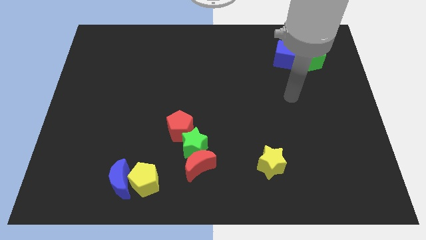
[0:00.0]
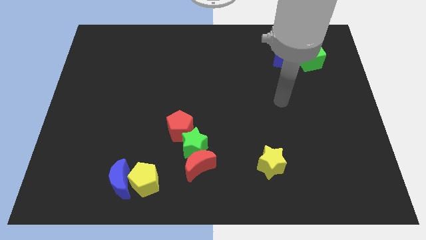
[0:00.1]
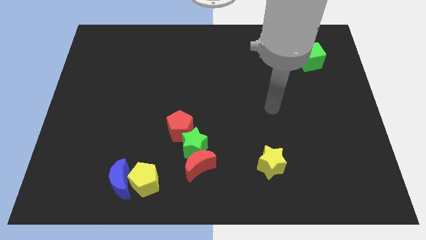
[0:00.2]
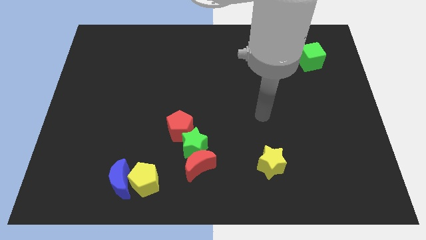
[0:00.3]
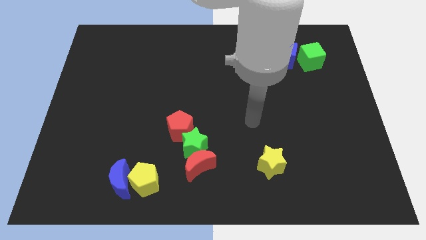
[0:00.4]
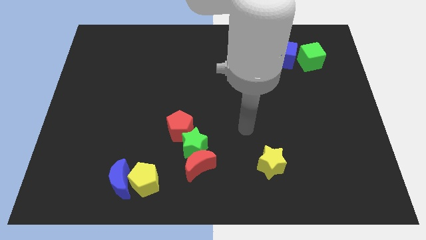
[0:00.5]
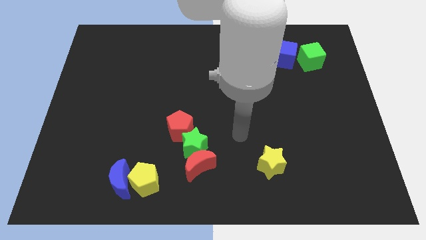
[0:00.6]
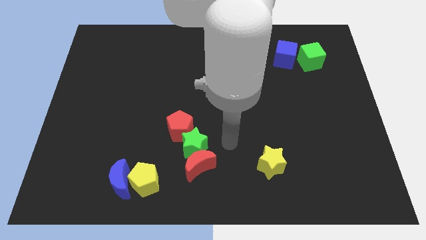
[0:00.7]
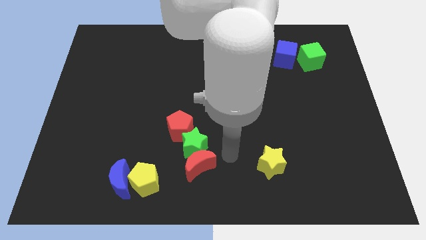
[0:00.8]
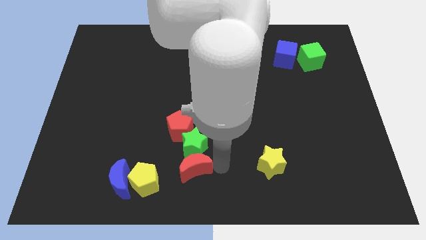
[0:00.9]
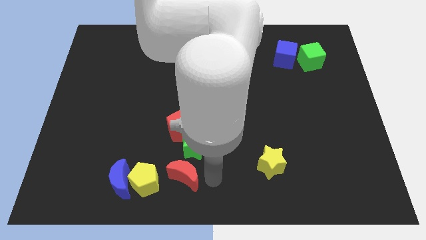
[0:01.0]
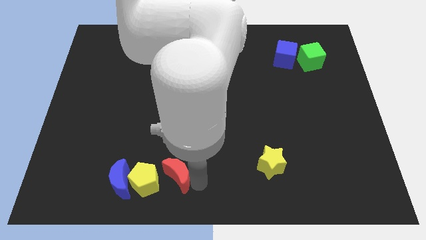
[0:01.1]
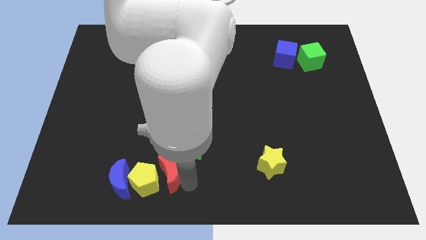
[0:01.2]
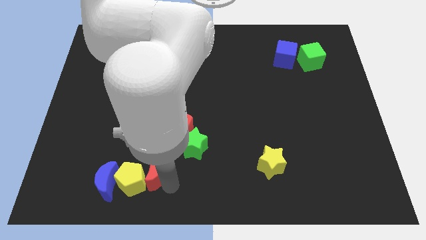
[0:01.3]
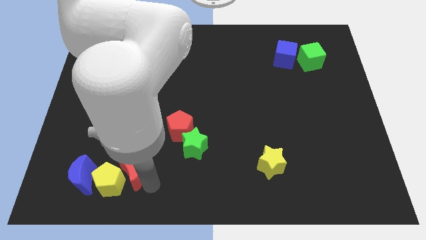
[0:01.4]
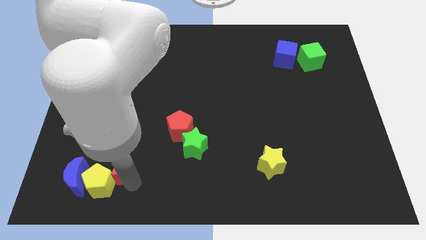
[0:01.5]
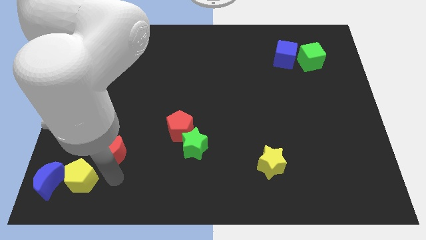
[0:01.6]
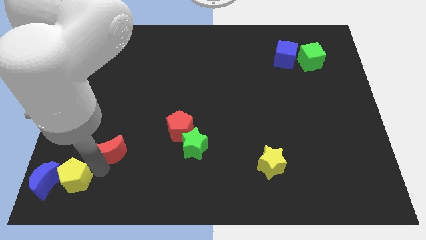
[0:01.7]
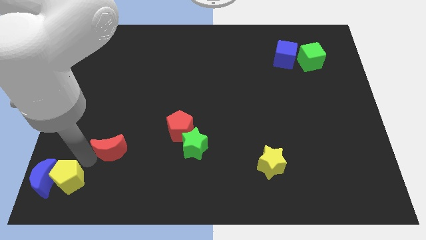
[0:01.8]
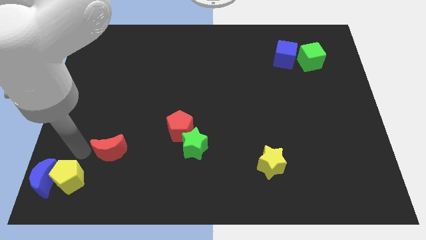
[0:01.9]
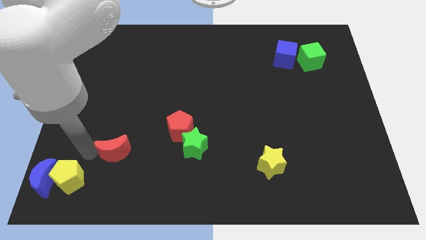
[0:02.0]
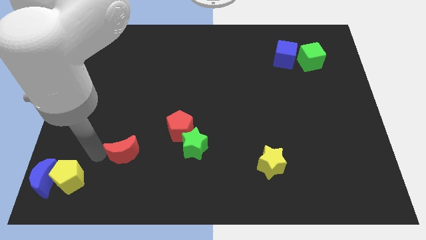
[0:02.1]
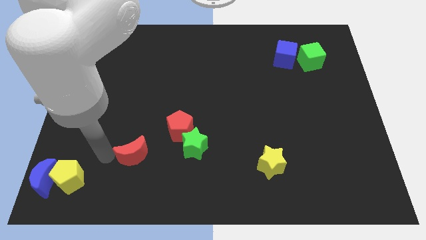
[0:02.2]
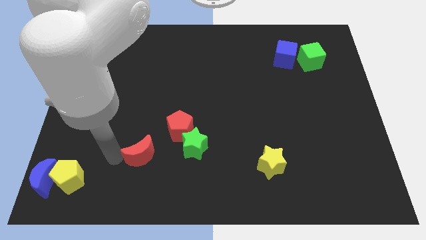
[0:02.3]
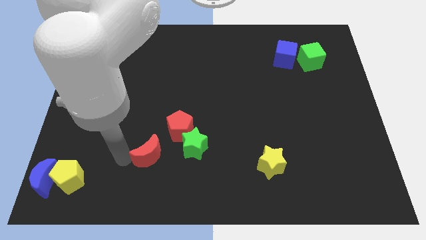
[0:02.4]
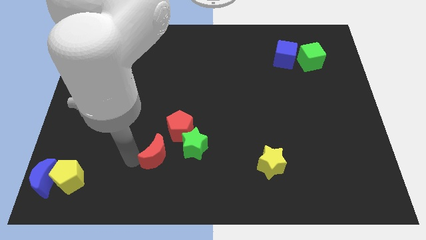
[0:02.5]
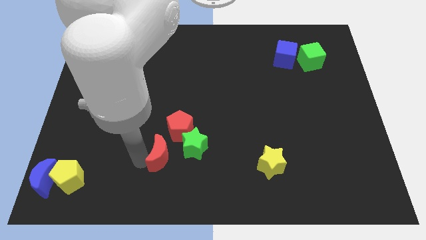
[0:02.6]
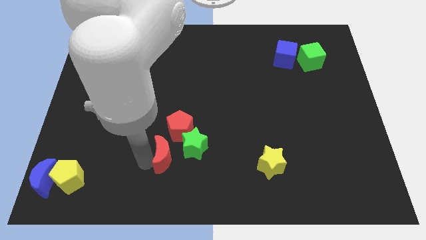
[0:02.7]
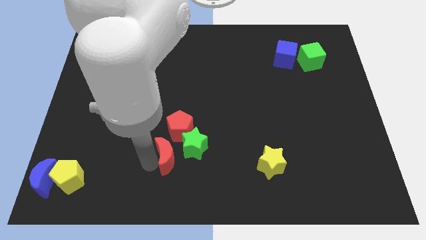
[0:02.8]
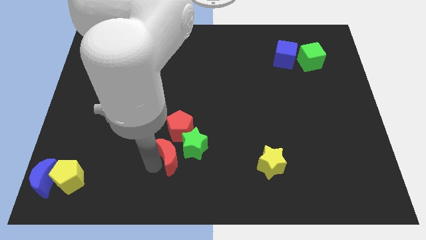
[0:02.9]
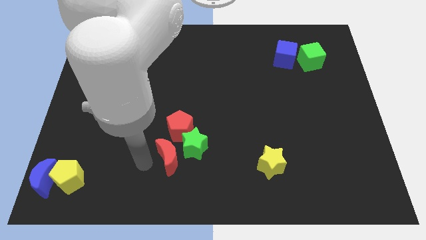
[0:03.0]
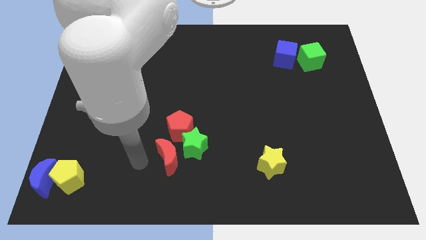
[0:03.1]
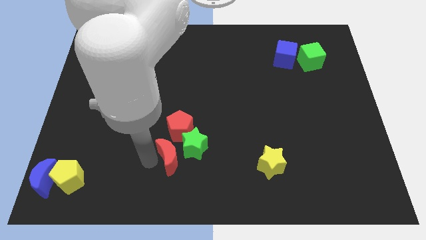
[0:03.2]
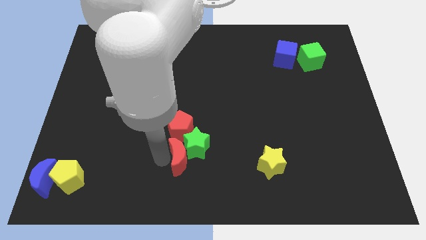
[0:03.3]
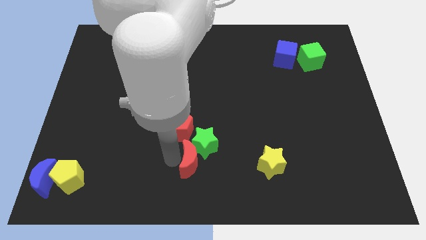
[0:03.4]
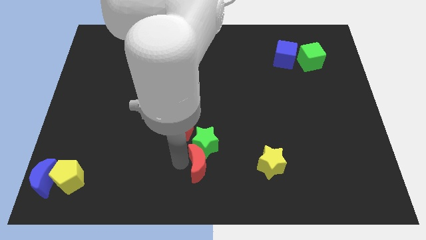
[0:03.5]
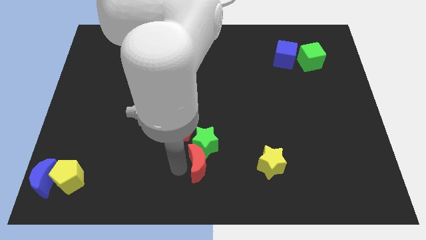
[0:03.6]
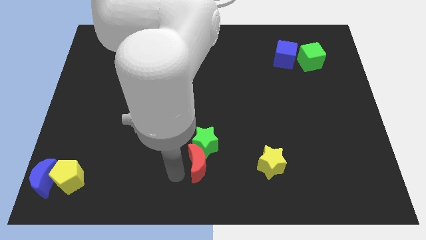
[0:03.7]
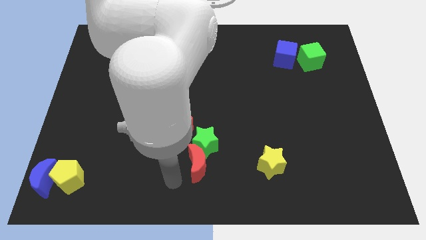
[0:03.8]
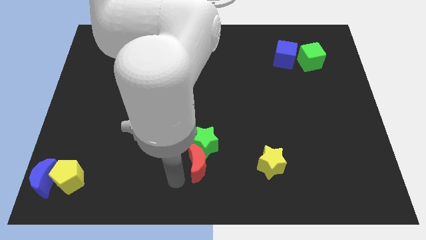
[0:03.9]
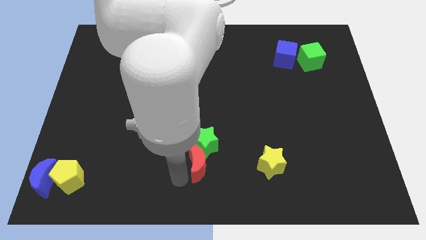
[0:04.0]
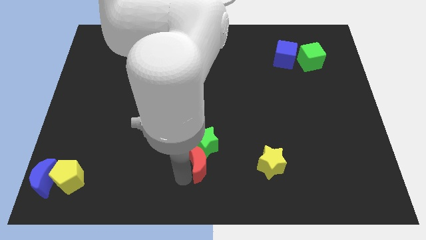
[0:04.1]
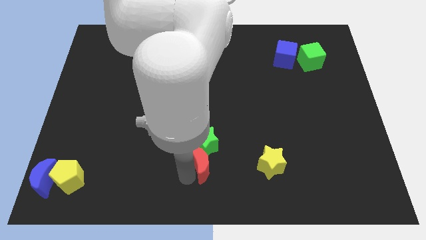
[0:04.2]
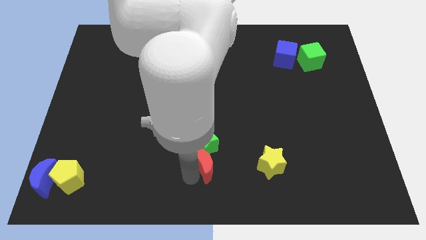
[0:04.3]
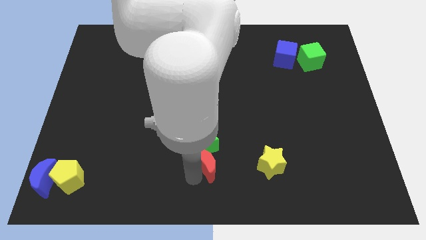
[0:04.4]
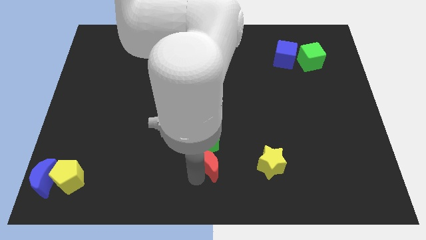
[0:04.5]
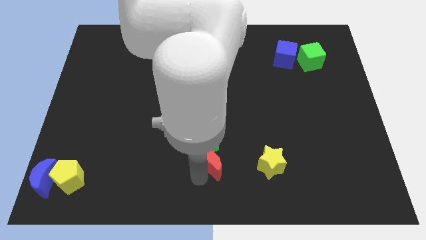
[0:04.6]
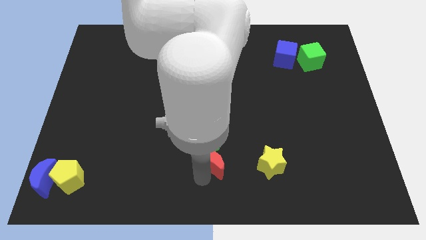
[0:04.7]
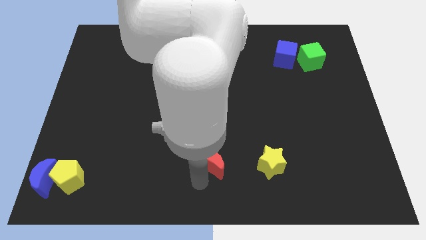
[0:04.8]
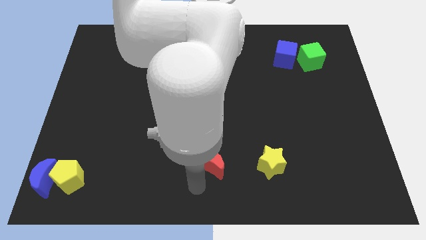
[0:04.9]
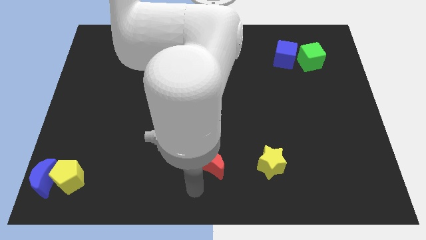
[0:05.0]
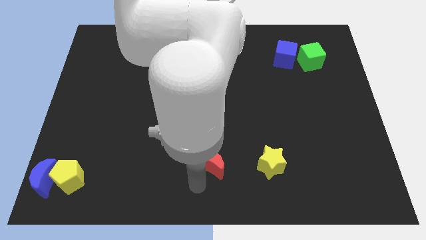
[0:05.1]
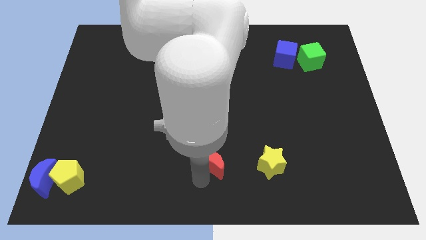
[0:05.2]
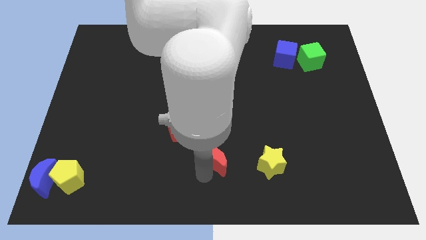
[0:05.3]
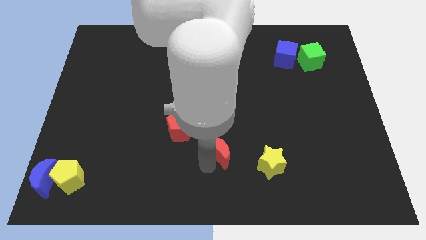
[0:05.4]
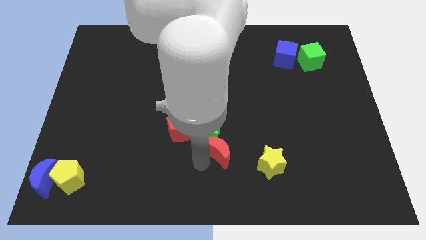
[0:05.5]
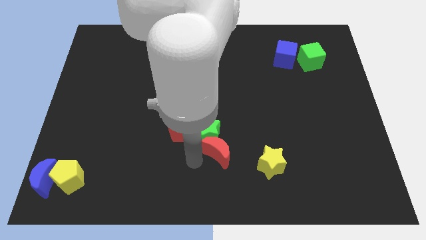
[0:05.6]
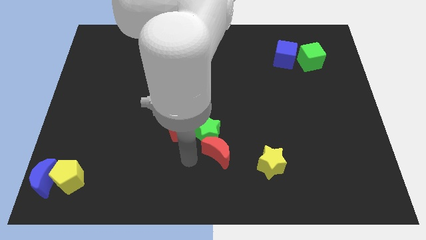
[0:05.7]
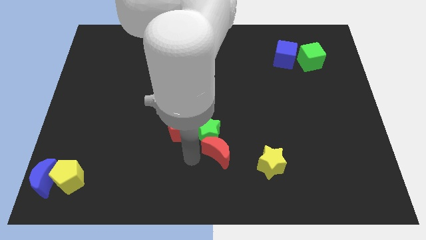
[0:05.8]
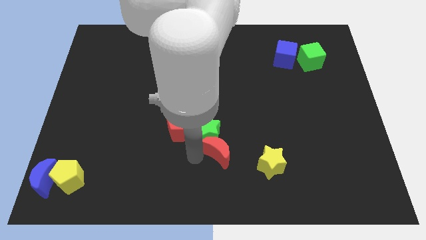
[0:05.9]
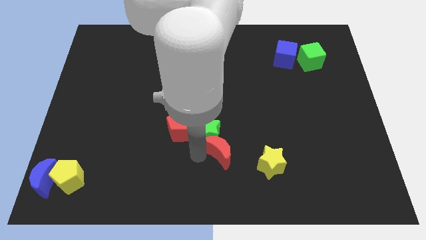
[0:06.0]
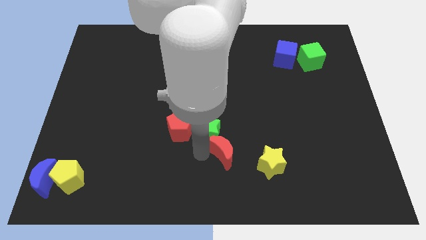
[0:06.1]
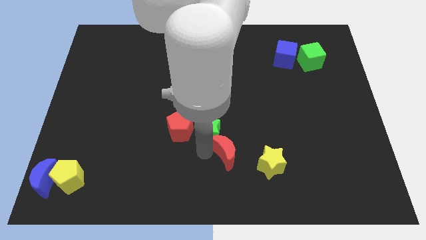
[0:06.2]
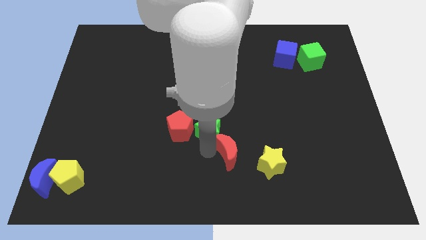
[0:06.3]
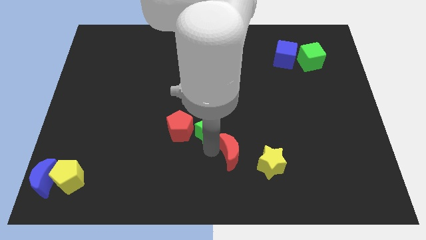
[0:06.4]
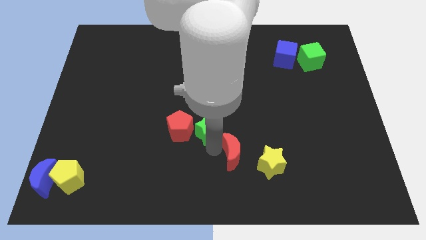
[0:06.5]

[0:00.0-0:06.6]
slide the red moon to the right a bit

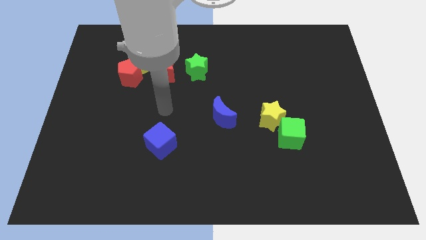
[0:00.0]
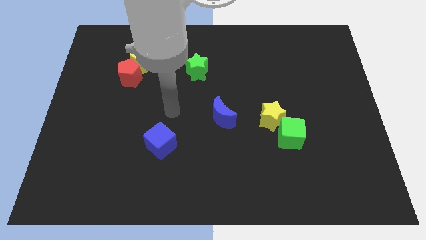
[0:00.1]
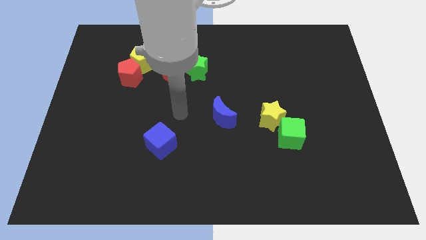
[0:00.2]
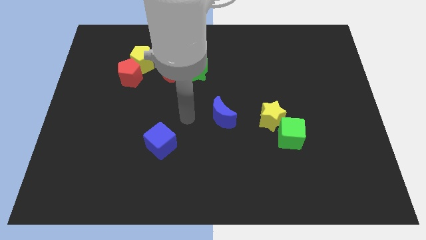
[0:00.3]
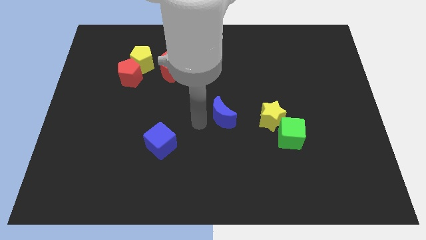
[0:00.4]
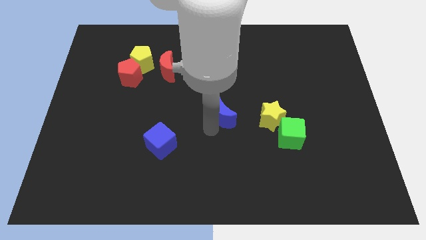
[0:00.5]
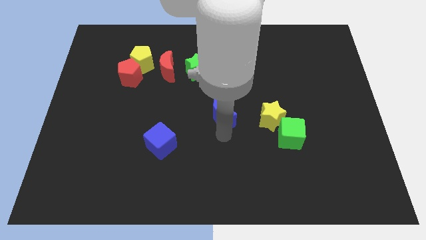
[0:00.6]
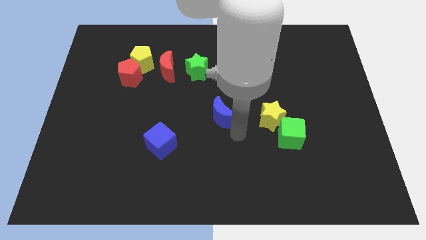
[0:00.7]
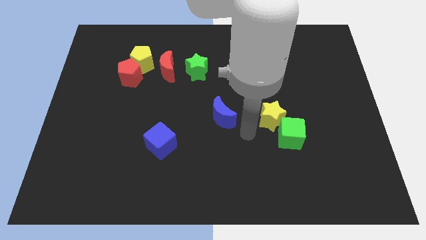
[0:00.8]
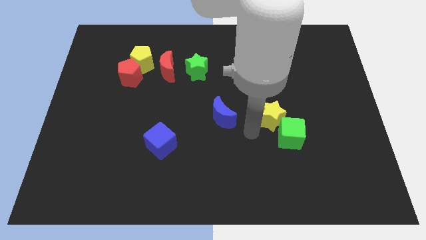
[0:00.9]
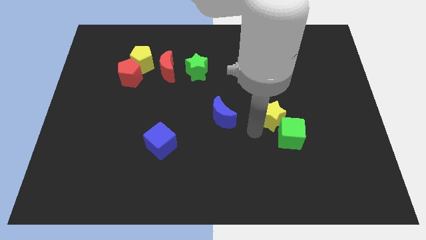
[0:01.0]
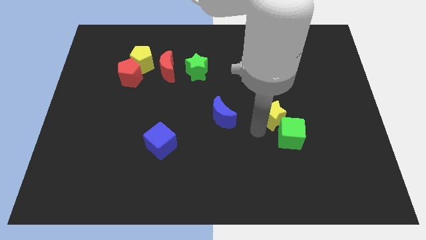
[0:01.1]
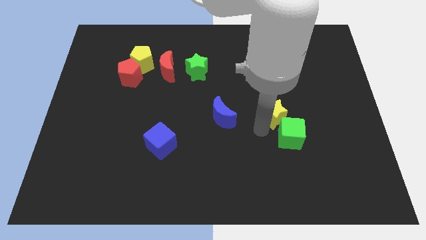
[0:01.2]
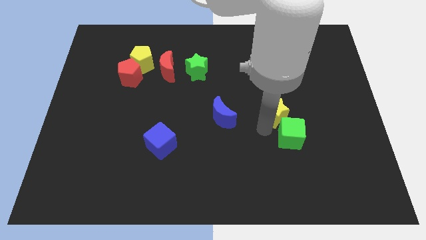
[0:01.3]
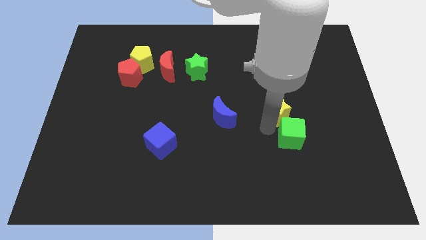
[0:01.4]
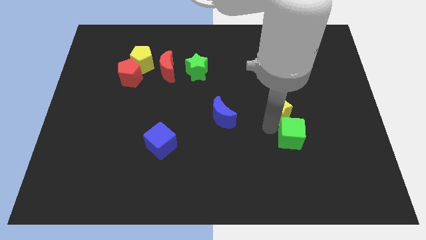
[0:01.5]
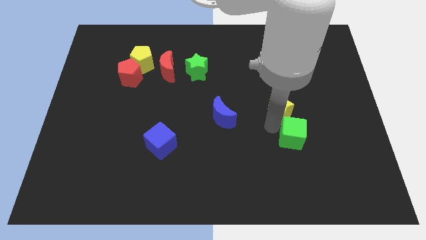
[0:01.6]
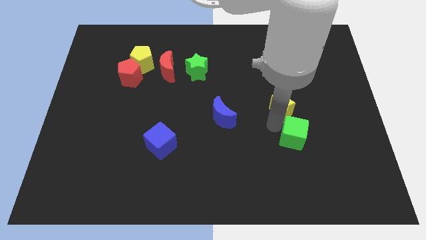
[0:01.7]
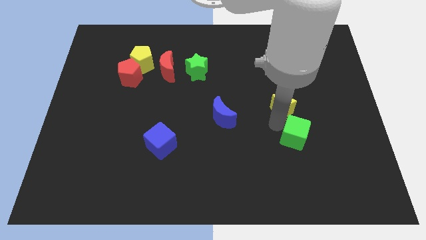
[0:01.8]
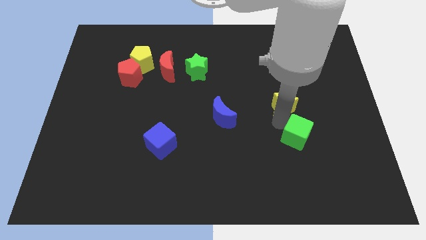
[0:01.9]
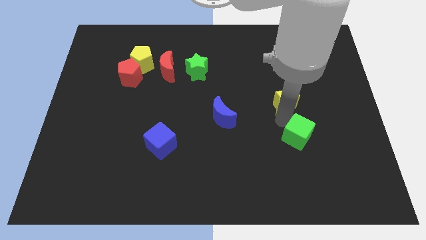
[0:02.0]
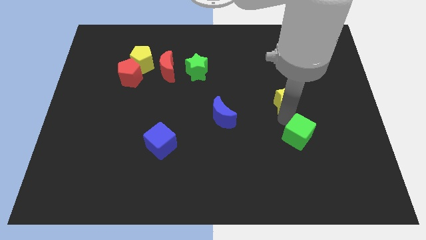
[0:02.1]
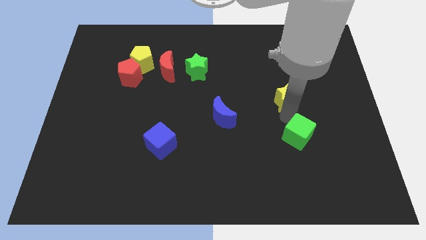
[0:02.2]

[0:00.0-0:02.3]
slide the yellow star upwards and then to the right a bit
